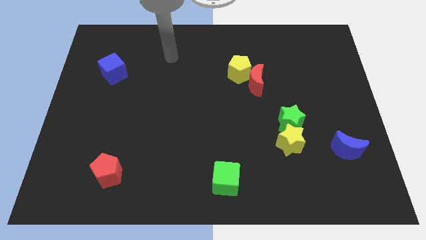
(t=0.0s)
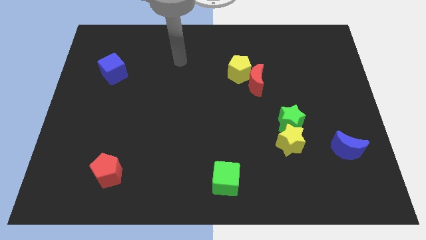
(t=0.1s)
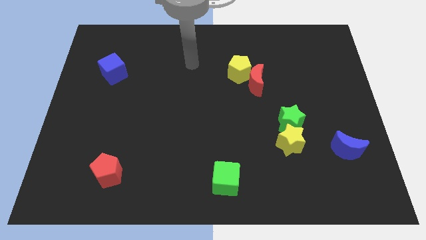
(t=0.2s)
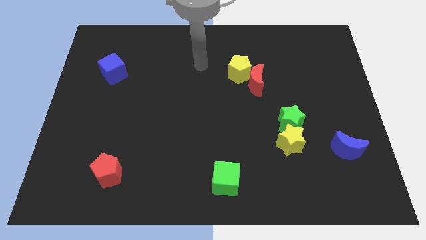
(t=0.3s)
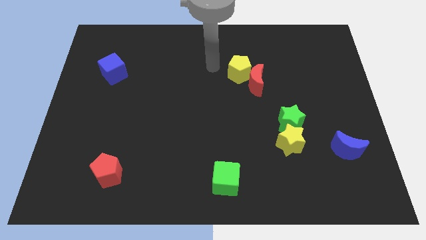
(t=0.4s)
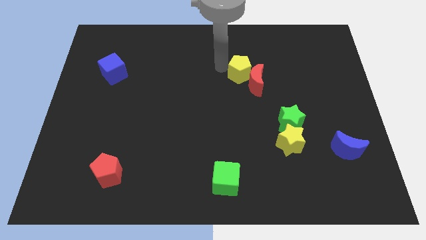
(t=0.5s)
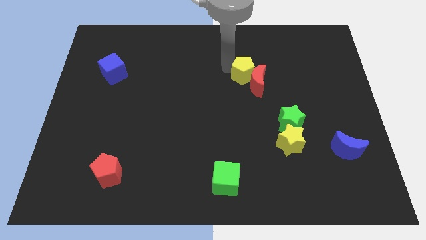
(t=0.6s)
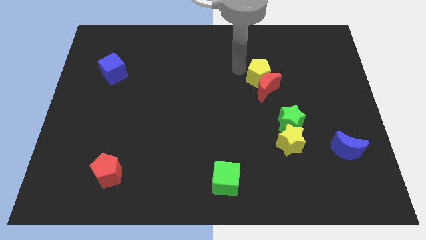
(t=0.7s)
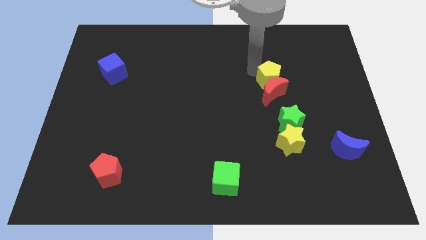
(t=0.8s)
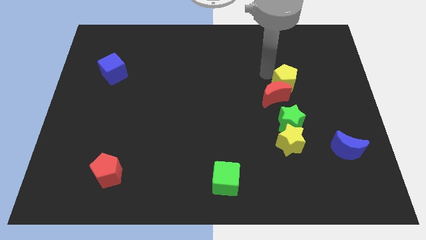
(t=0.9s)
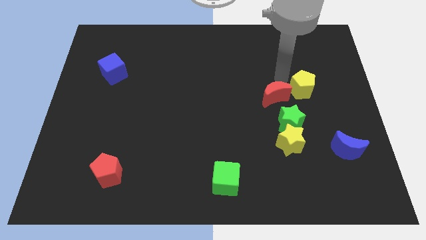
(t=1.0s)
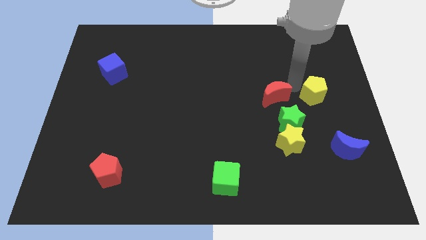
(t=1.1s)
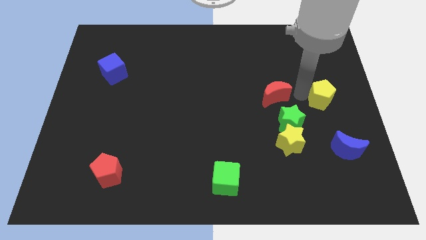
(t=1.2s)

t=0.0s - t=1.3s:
separate the red moon from the yellow pentagon

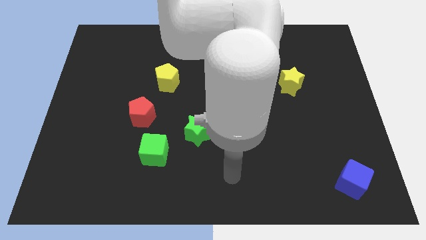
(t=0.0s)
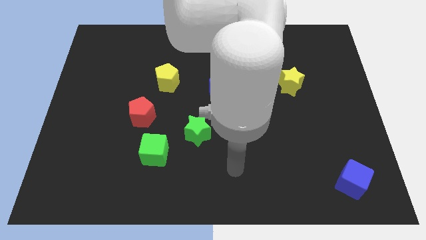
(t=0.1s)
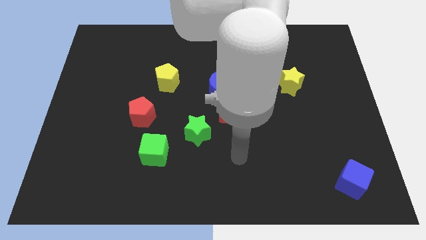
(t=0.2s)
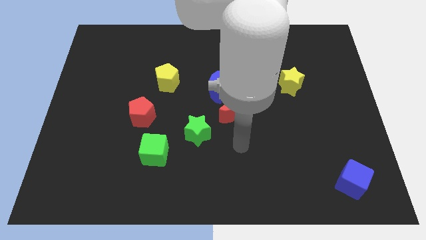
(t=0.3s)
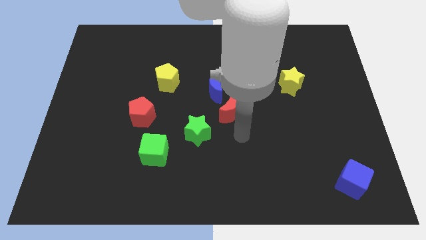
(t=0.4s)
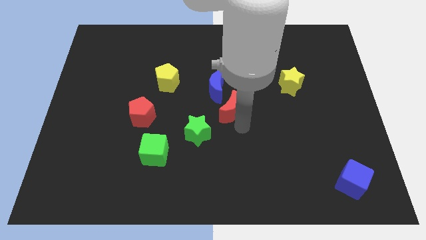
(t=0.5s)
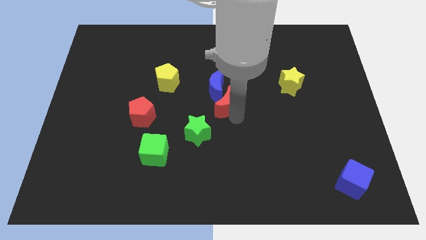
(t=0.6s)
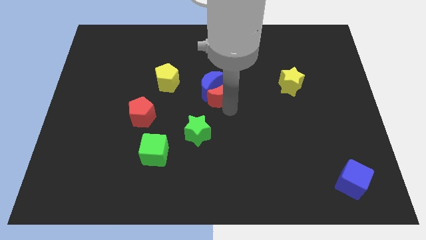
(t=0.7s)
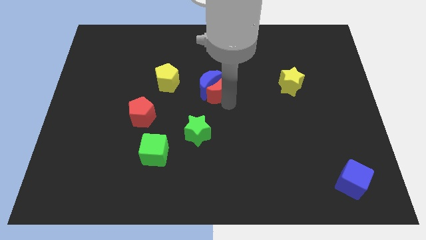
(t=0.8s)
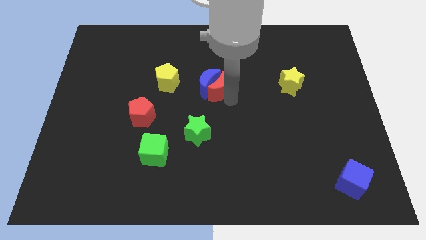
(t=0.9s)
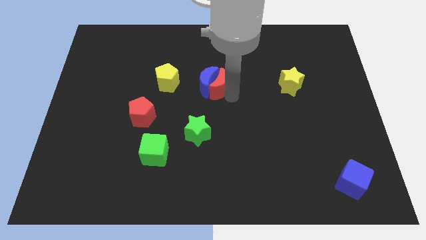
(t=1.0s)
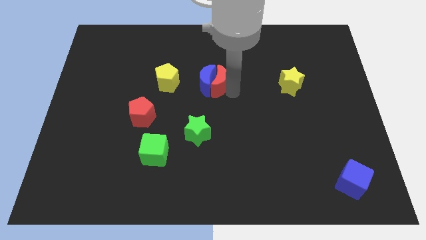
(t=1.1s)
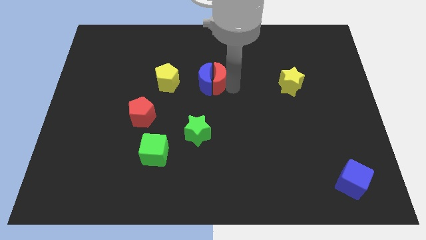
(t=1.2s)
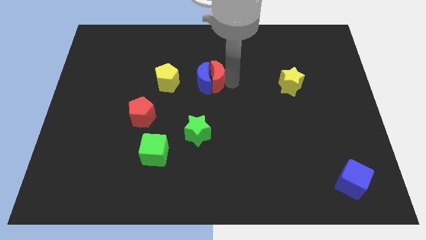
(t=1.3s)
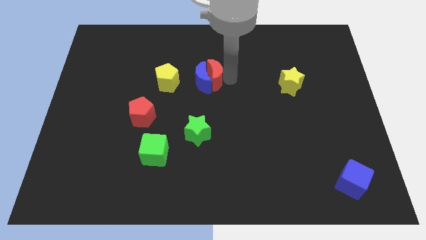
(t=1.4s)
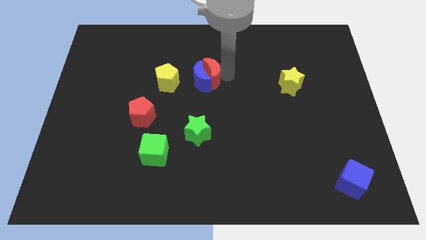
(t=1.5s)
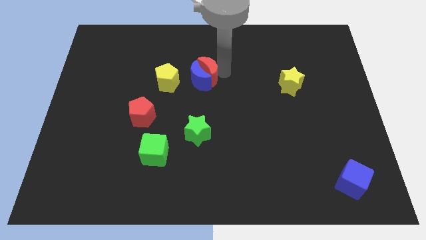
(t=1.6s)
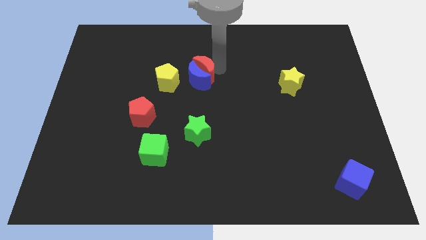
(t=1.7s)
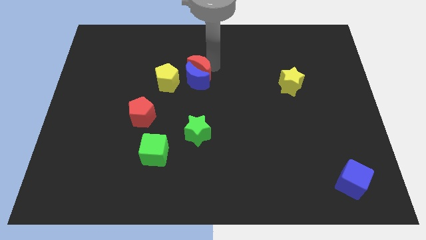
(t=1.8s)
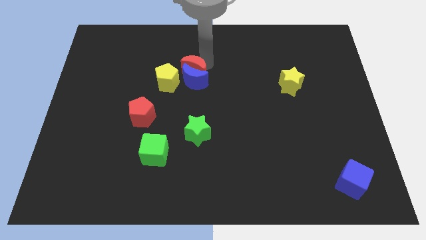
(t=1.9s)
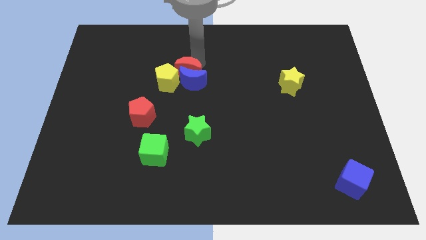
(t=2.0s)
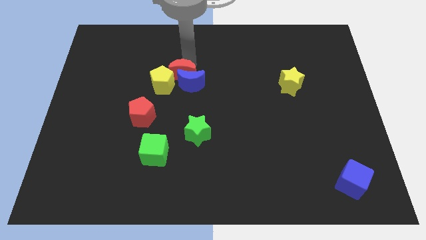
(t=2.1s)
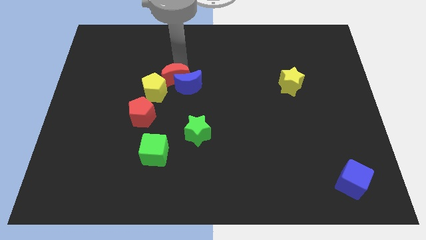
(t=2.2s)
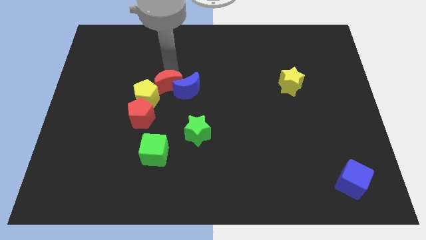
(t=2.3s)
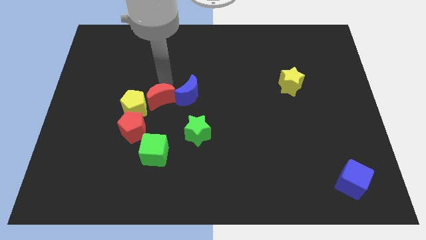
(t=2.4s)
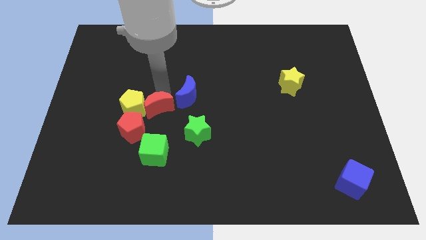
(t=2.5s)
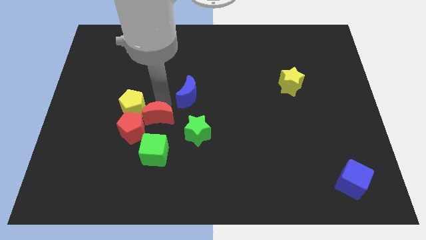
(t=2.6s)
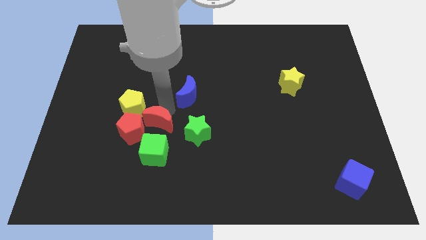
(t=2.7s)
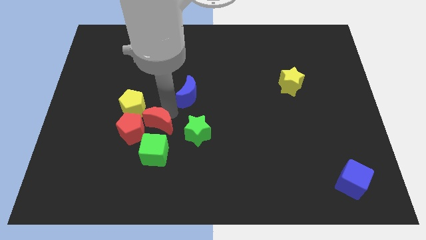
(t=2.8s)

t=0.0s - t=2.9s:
separate the blue moon from the red moon

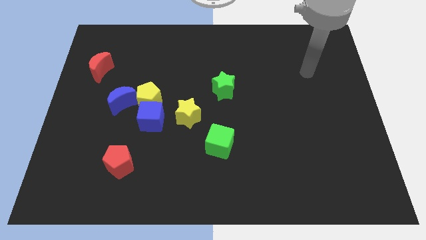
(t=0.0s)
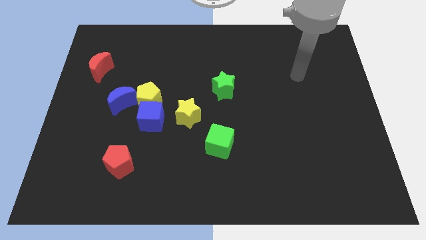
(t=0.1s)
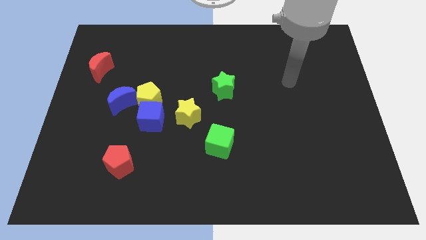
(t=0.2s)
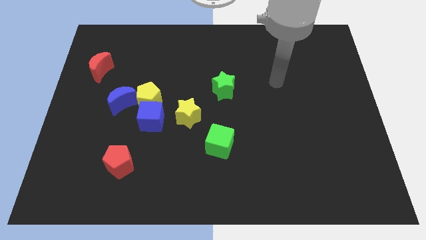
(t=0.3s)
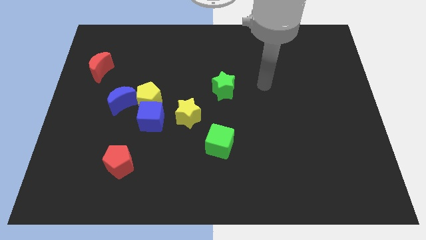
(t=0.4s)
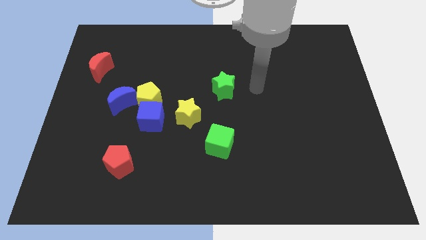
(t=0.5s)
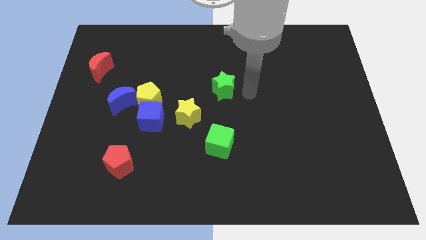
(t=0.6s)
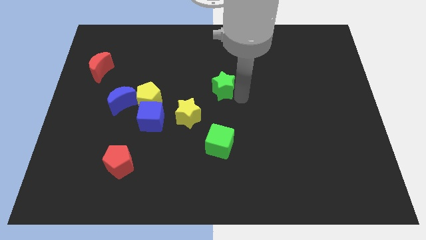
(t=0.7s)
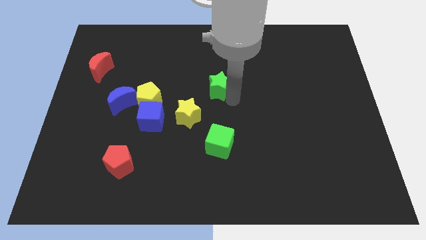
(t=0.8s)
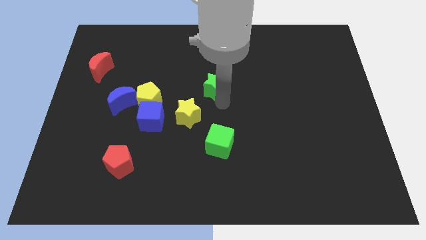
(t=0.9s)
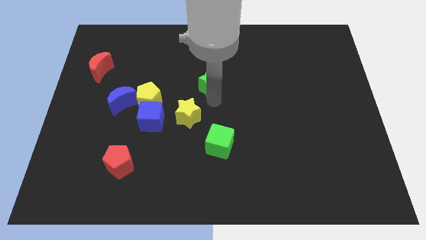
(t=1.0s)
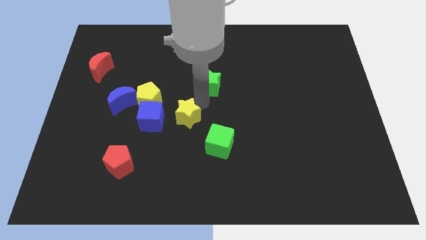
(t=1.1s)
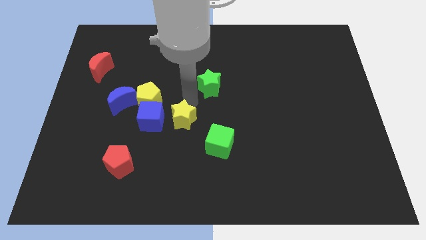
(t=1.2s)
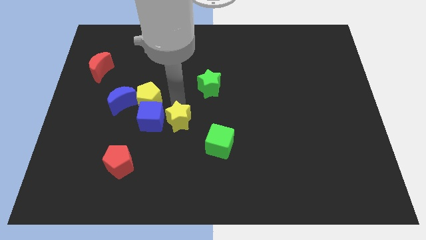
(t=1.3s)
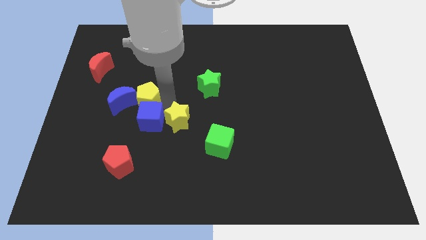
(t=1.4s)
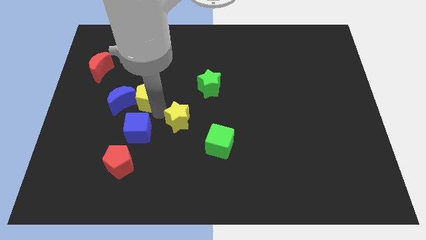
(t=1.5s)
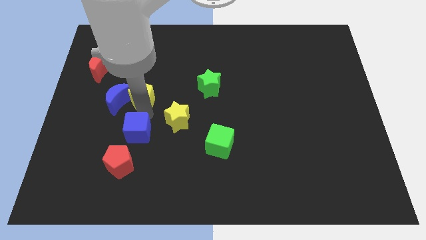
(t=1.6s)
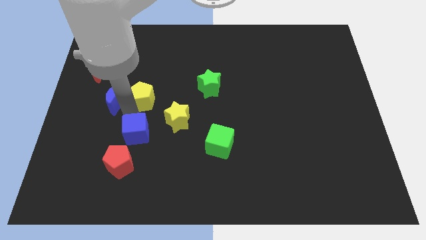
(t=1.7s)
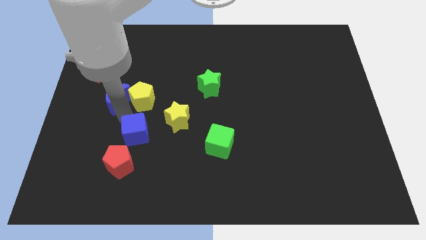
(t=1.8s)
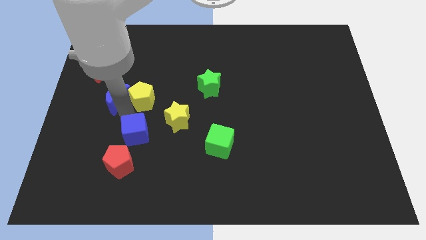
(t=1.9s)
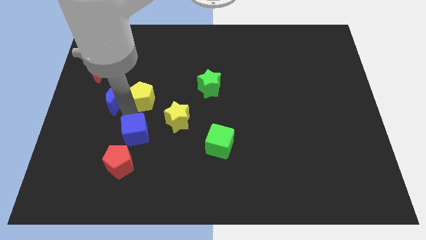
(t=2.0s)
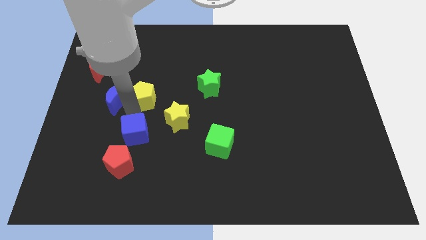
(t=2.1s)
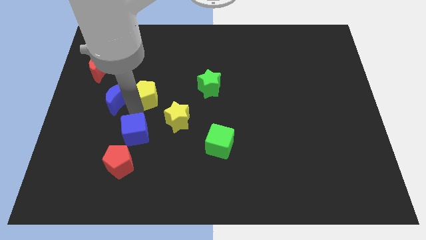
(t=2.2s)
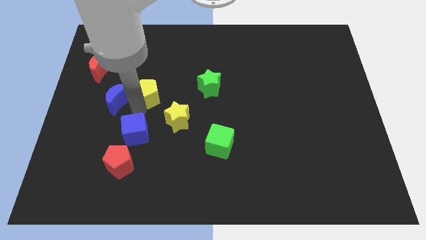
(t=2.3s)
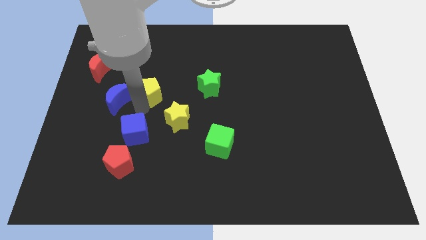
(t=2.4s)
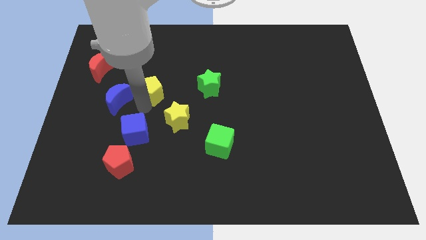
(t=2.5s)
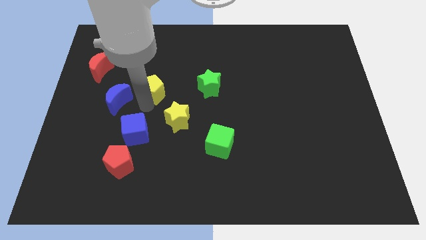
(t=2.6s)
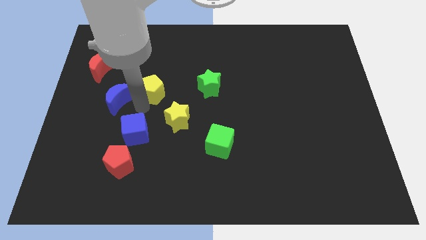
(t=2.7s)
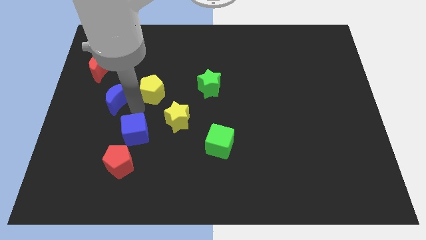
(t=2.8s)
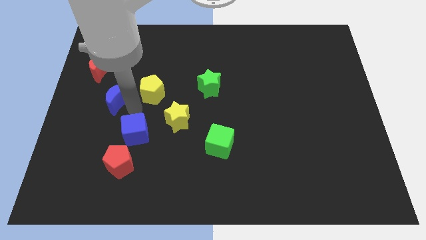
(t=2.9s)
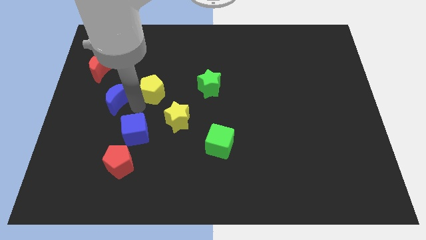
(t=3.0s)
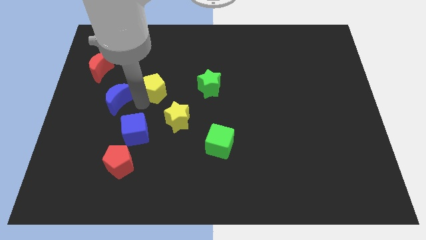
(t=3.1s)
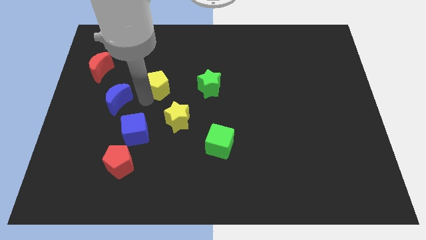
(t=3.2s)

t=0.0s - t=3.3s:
separate the yellow pentagon from the blue cube and blue moon

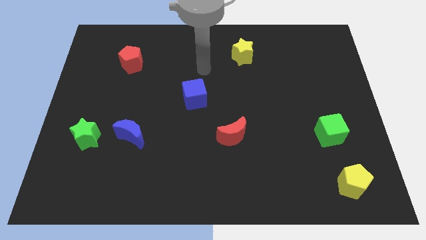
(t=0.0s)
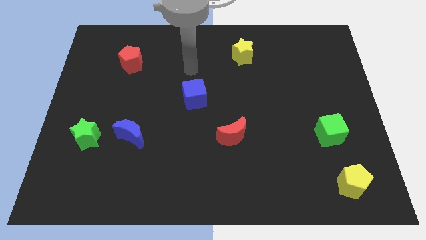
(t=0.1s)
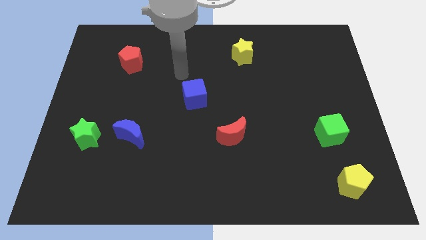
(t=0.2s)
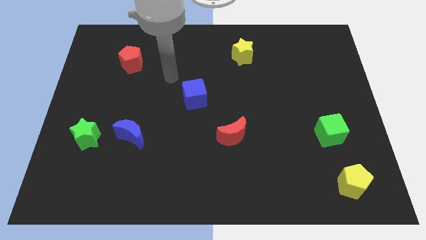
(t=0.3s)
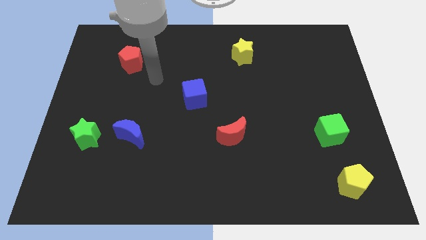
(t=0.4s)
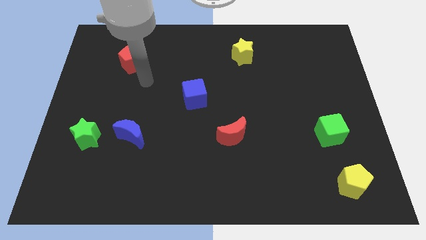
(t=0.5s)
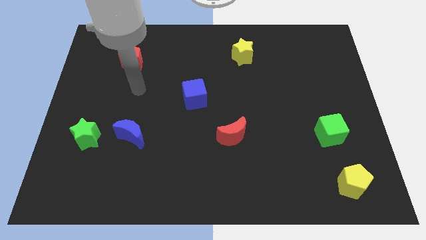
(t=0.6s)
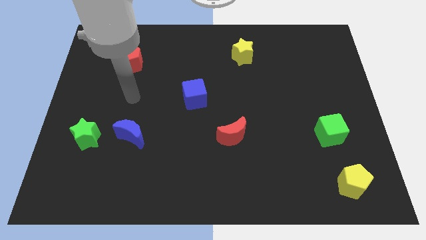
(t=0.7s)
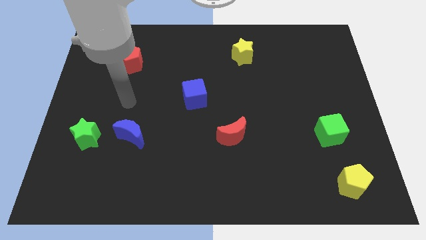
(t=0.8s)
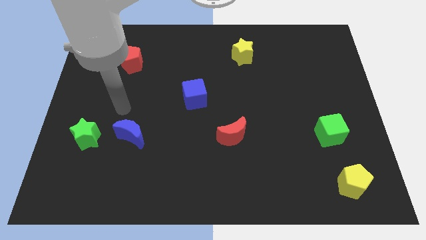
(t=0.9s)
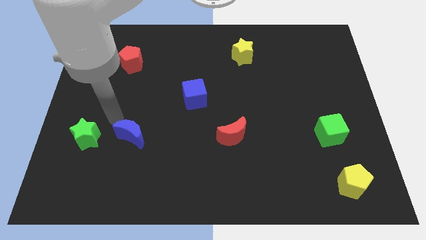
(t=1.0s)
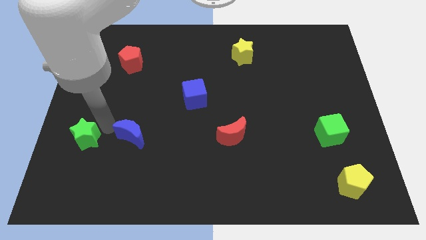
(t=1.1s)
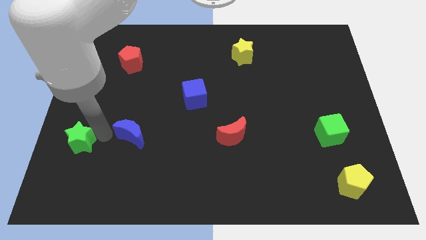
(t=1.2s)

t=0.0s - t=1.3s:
move the blue moon away from the green star

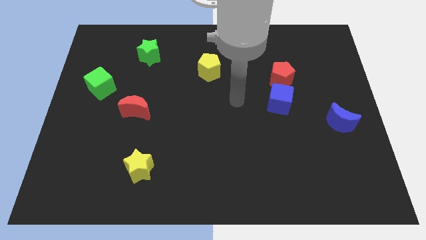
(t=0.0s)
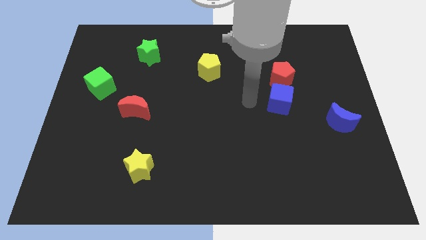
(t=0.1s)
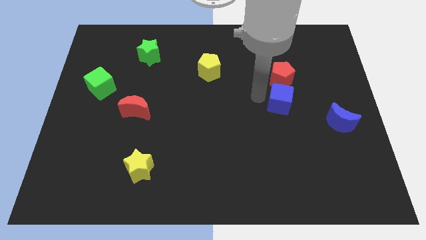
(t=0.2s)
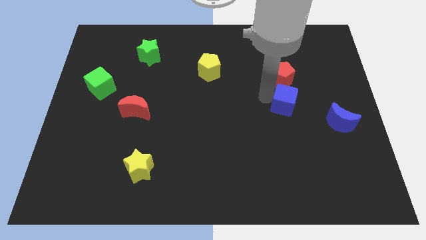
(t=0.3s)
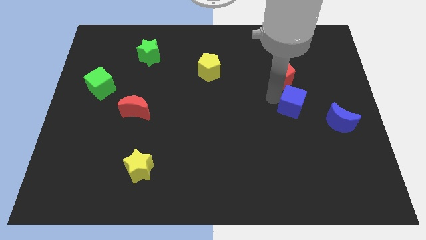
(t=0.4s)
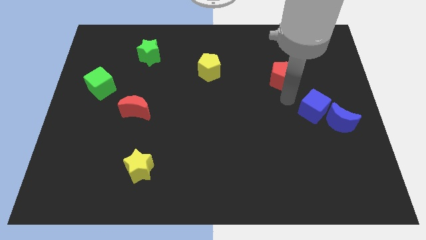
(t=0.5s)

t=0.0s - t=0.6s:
separate the red pentagon from the blue cube
